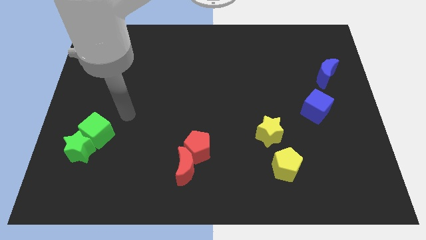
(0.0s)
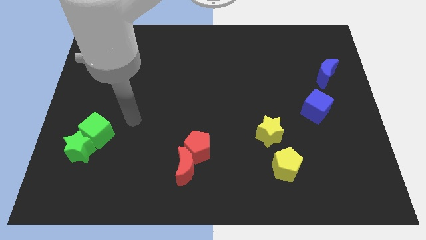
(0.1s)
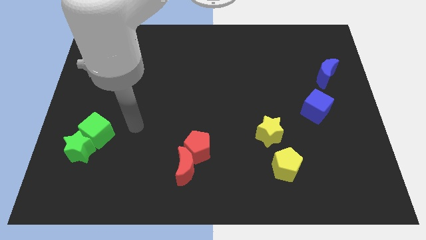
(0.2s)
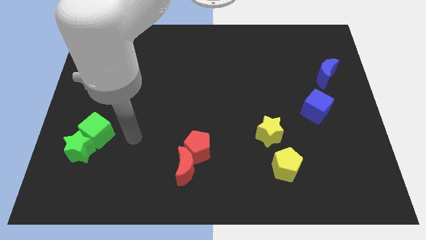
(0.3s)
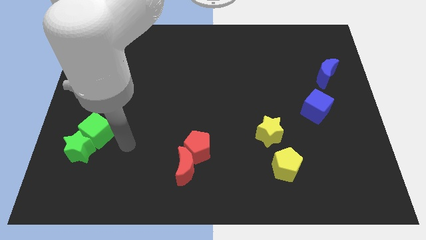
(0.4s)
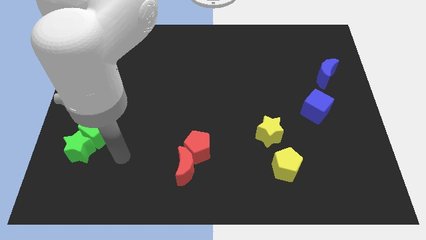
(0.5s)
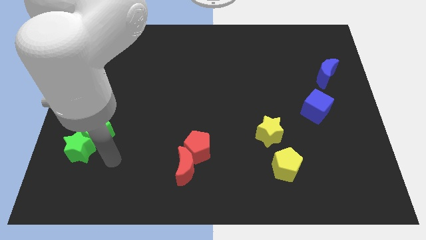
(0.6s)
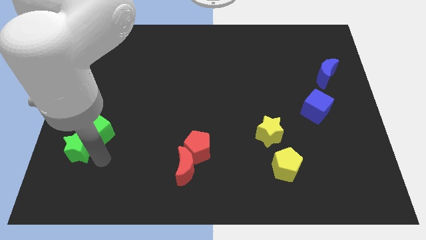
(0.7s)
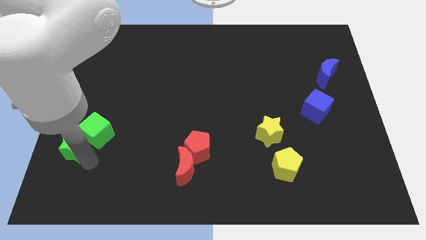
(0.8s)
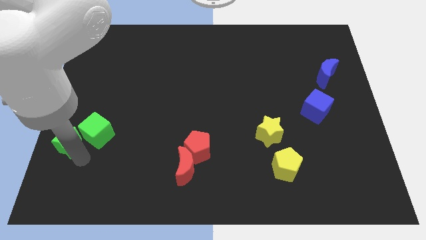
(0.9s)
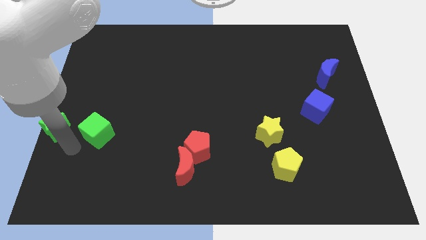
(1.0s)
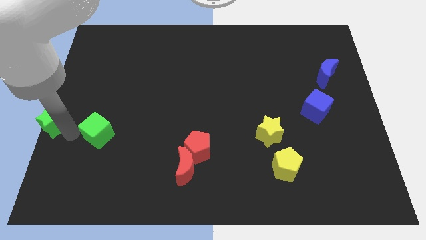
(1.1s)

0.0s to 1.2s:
move the green cube away from the green star

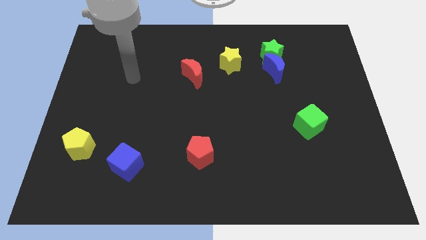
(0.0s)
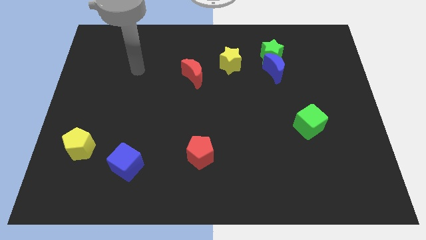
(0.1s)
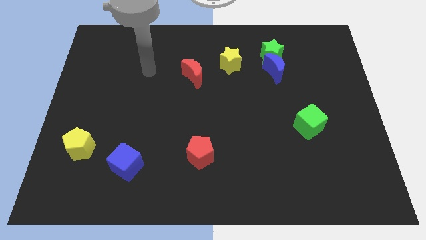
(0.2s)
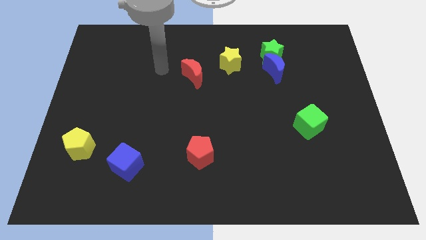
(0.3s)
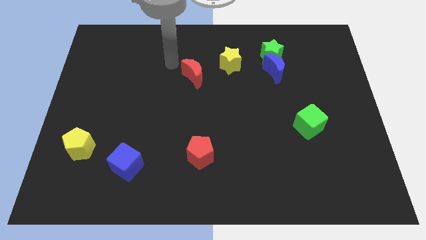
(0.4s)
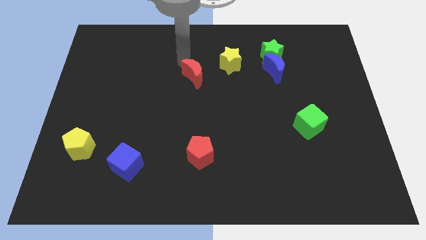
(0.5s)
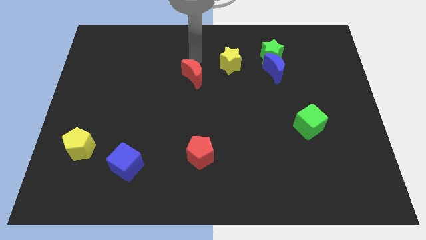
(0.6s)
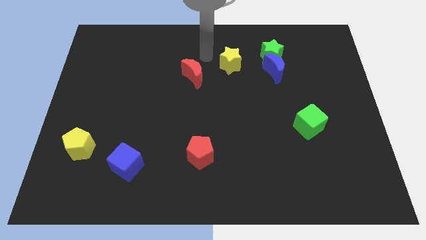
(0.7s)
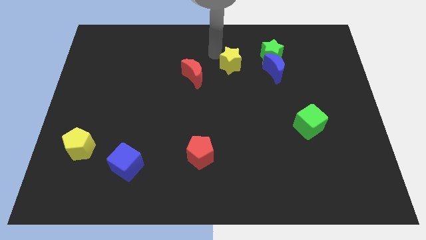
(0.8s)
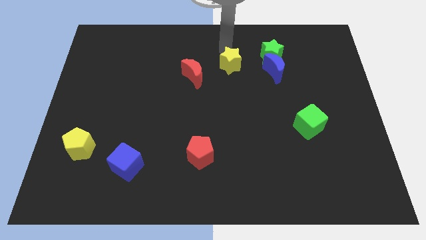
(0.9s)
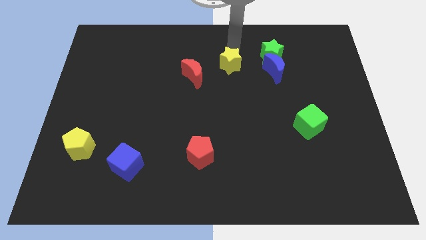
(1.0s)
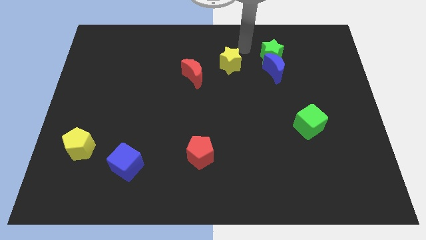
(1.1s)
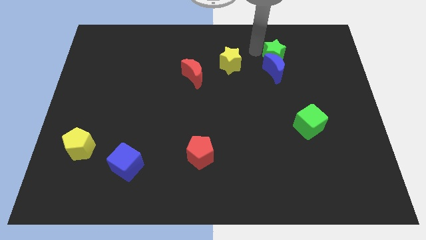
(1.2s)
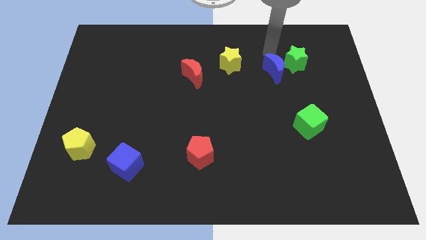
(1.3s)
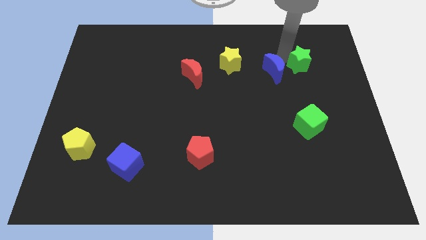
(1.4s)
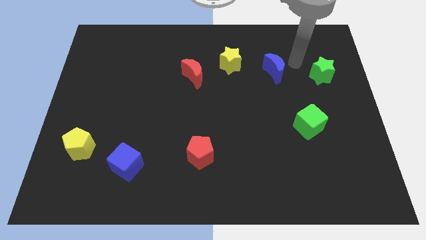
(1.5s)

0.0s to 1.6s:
pull the blue moon apart from the green star

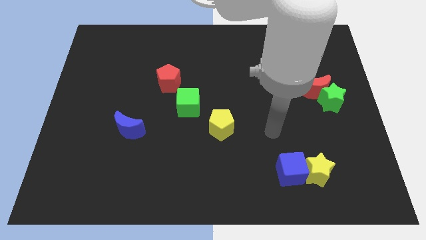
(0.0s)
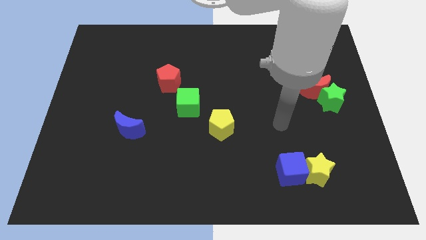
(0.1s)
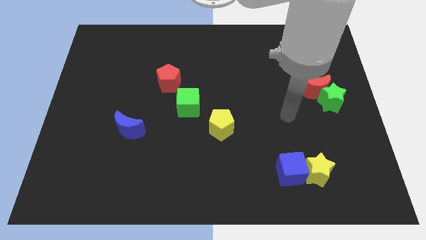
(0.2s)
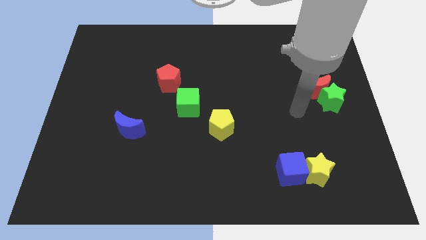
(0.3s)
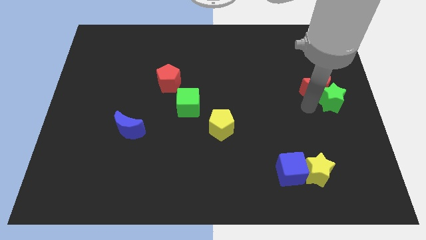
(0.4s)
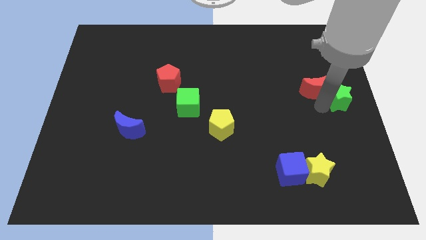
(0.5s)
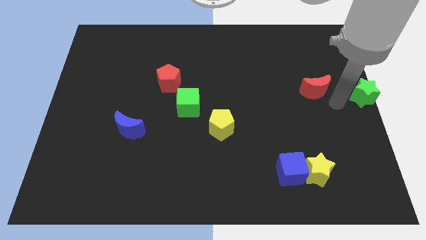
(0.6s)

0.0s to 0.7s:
separate the red moon from the green star

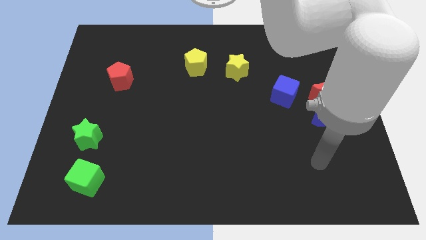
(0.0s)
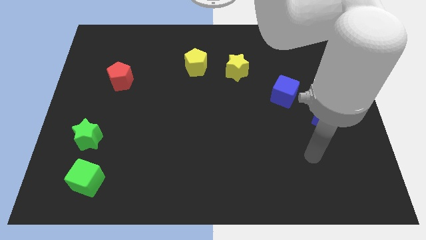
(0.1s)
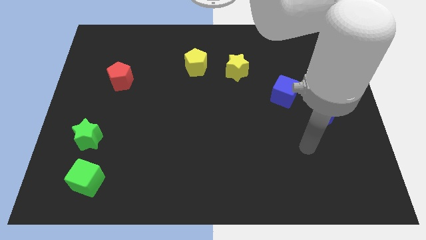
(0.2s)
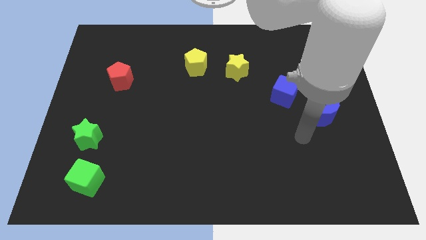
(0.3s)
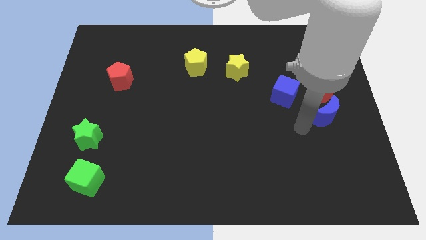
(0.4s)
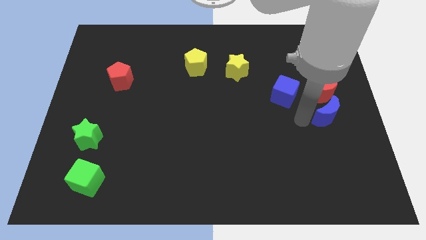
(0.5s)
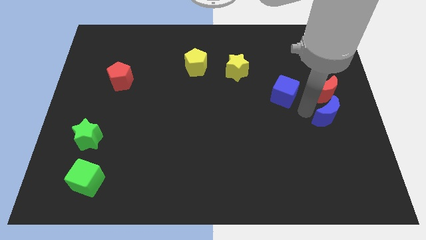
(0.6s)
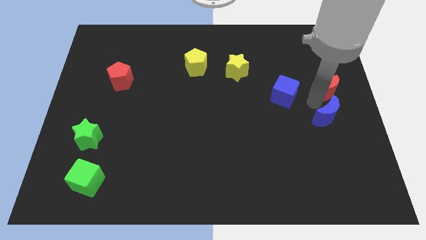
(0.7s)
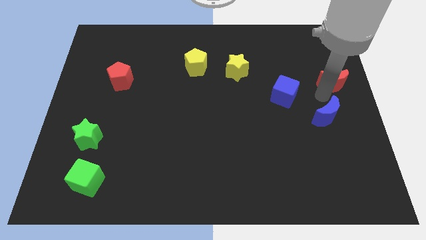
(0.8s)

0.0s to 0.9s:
move the blue moon away from the red moon

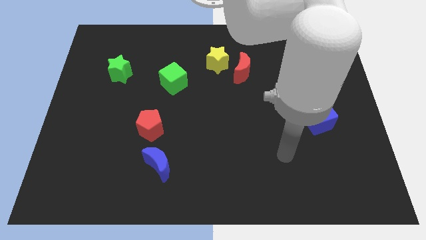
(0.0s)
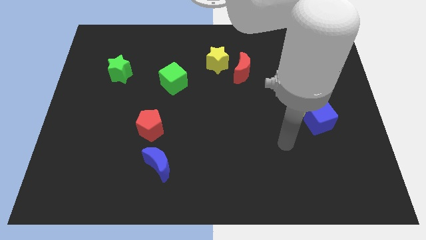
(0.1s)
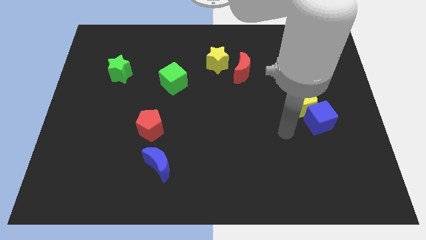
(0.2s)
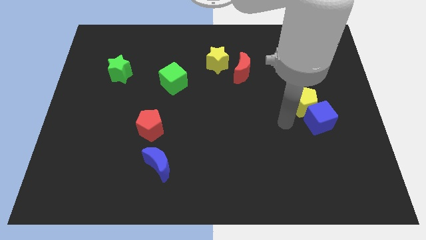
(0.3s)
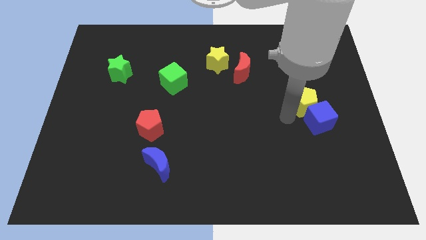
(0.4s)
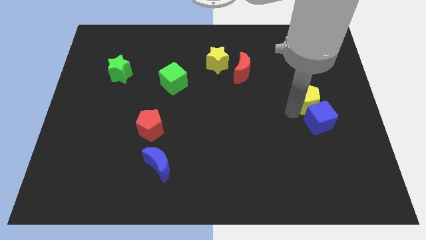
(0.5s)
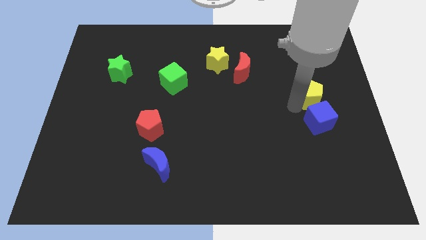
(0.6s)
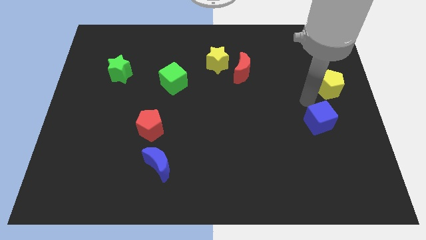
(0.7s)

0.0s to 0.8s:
move the blue cube away from the yellow pentagon

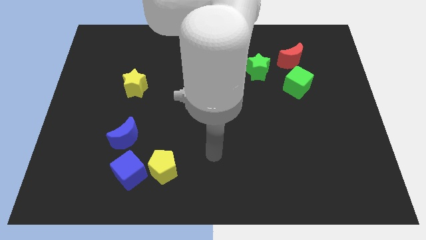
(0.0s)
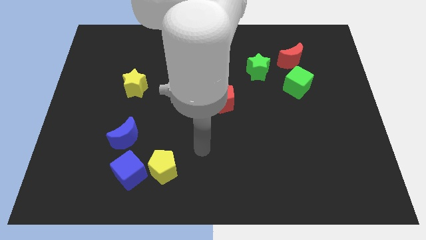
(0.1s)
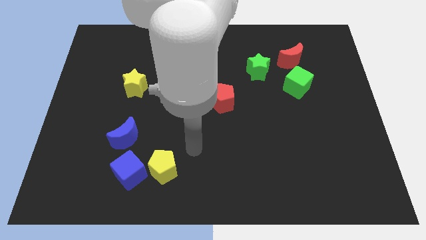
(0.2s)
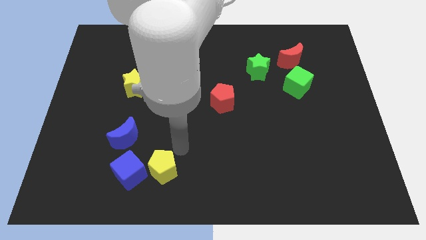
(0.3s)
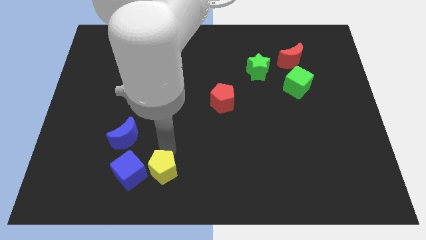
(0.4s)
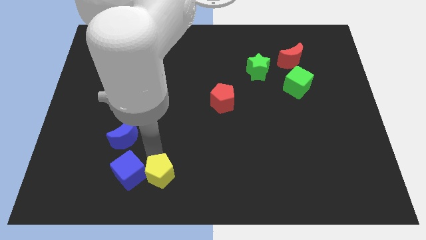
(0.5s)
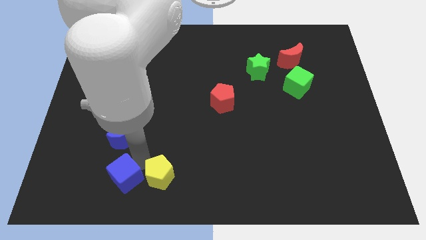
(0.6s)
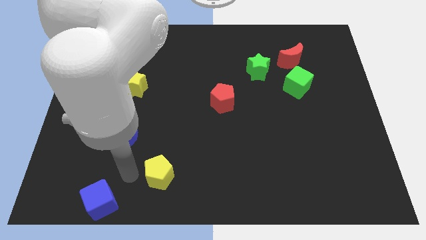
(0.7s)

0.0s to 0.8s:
pull the yellow pentagon apart from the blue cube

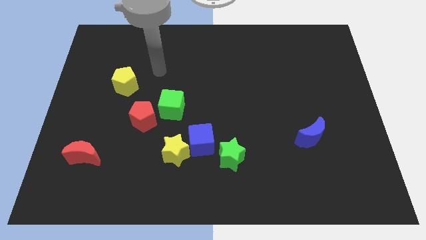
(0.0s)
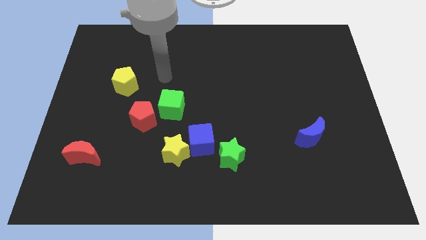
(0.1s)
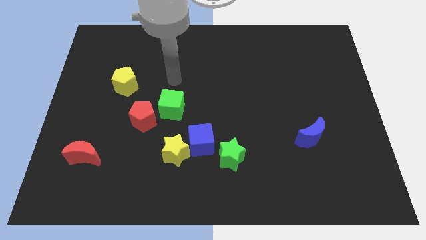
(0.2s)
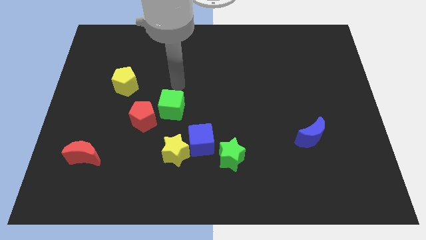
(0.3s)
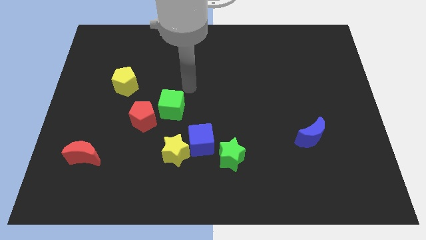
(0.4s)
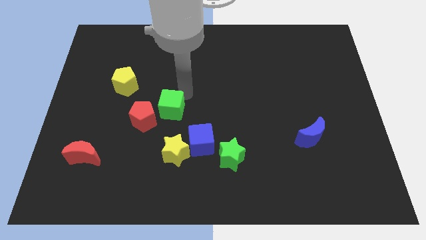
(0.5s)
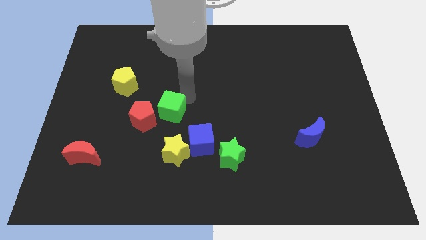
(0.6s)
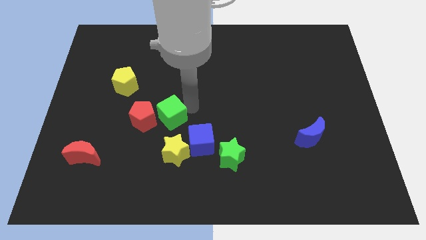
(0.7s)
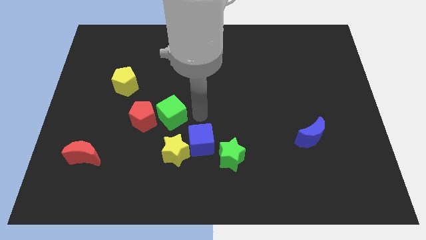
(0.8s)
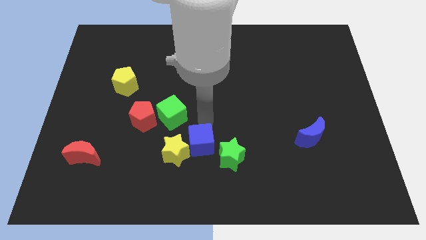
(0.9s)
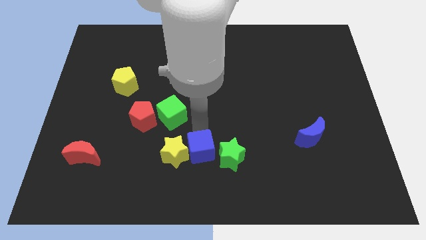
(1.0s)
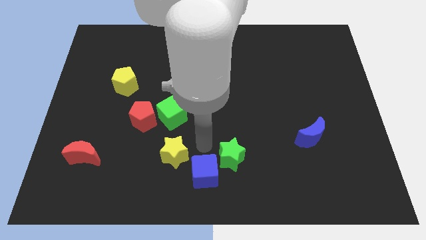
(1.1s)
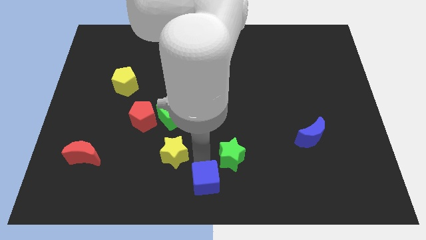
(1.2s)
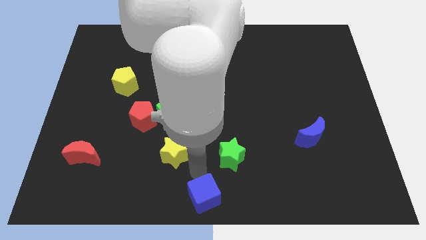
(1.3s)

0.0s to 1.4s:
separate the yellow star from the blue cube

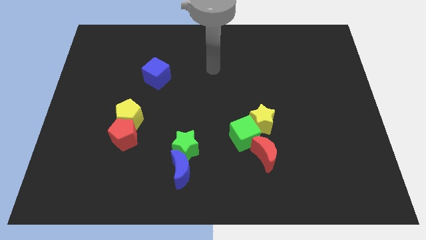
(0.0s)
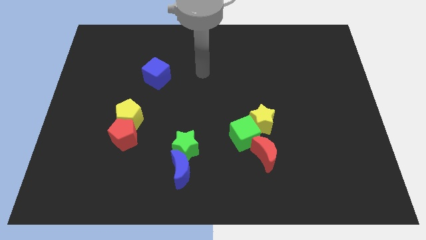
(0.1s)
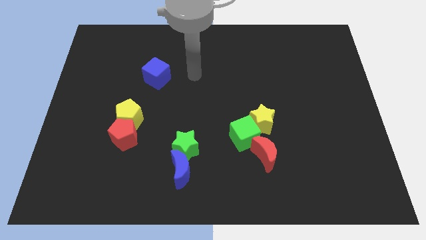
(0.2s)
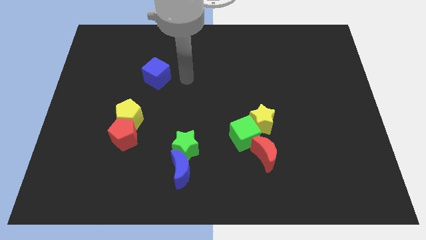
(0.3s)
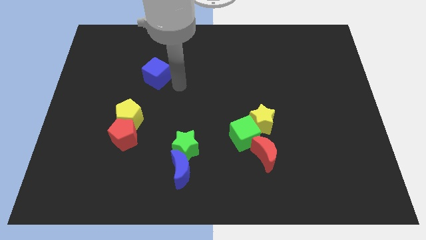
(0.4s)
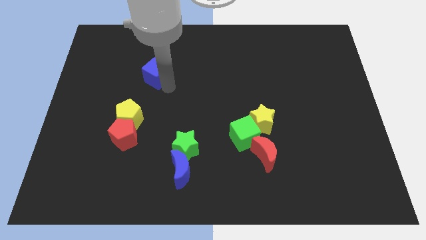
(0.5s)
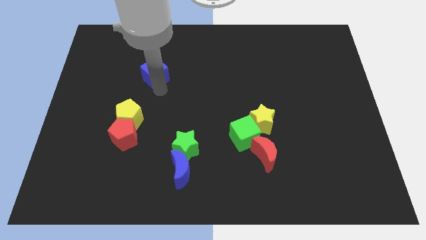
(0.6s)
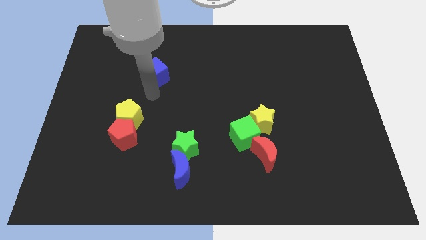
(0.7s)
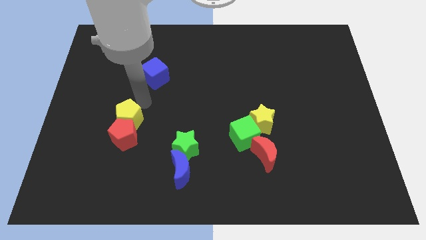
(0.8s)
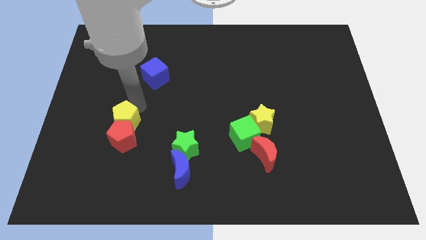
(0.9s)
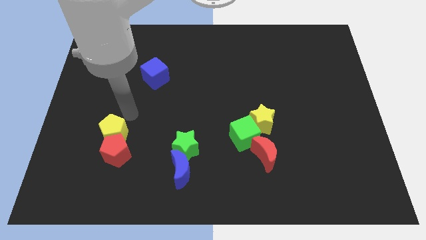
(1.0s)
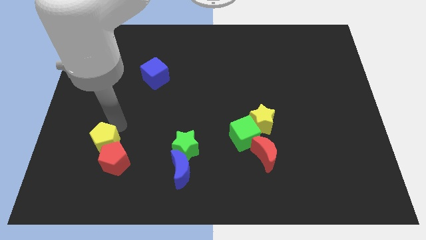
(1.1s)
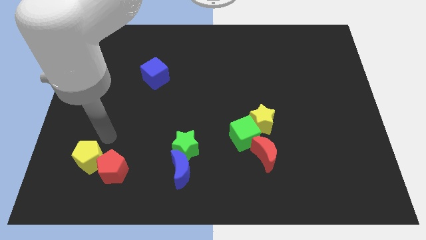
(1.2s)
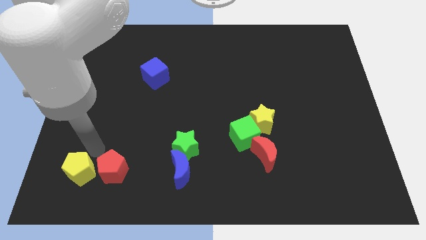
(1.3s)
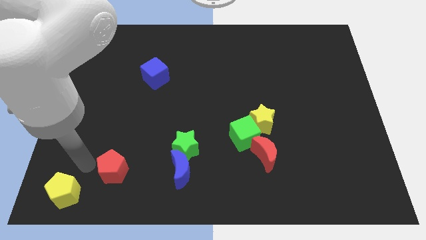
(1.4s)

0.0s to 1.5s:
separate the red pentagon from the yellow pentagon

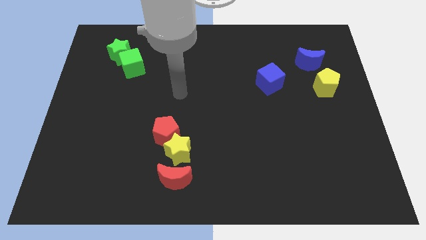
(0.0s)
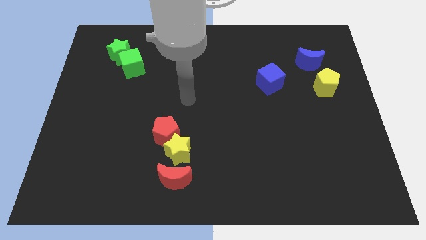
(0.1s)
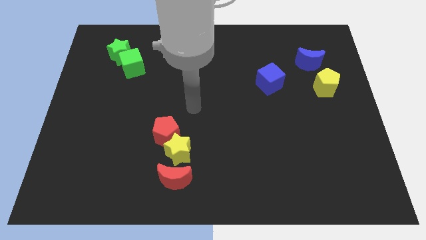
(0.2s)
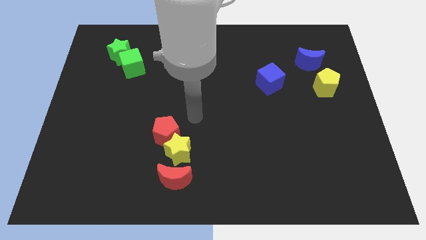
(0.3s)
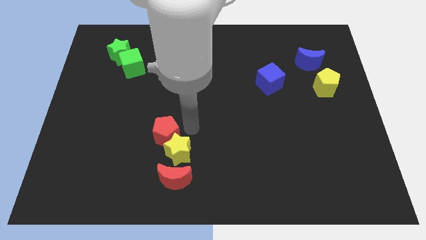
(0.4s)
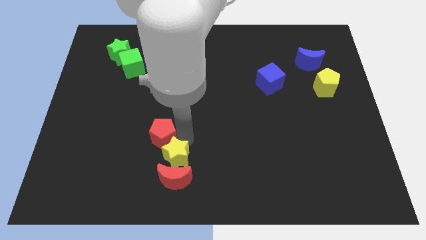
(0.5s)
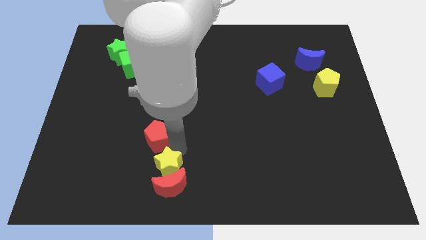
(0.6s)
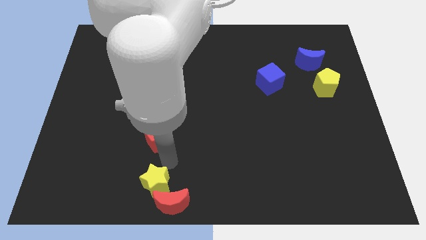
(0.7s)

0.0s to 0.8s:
pull the red pentagon apart from the yellow star
